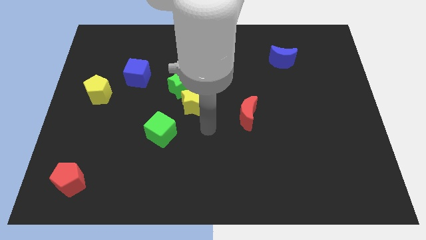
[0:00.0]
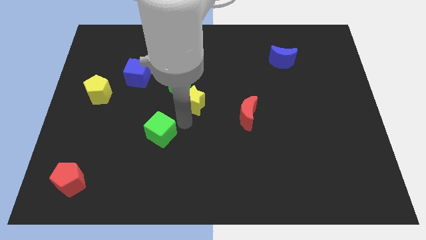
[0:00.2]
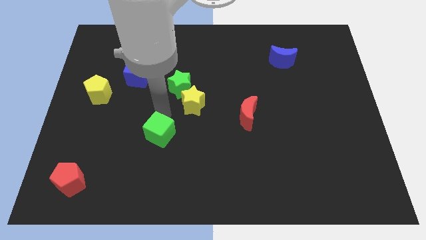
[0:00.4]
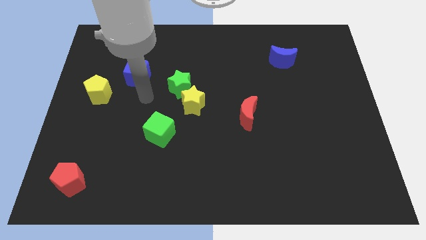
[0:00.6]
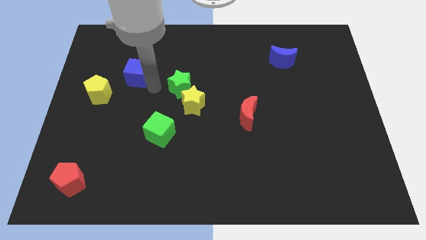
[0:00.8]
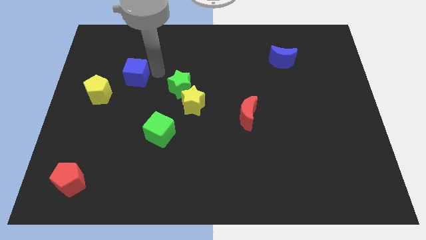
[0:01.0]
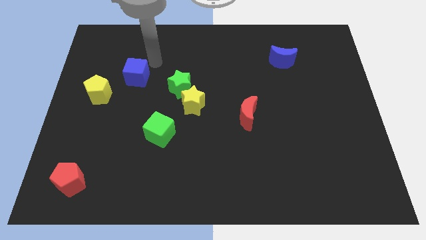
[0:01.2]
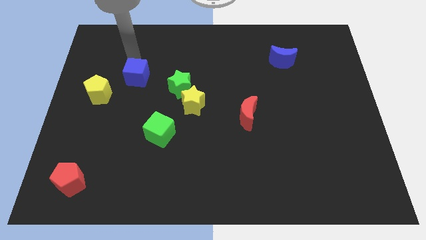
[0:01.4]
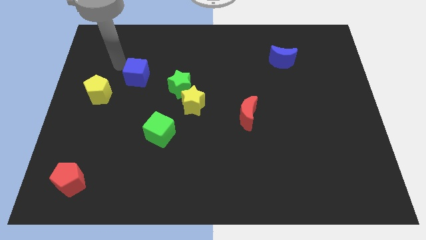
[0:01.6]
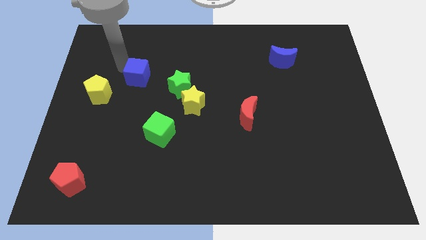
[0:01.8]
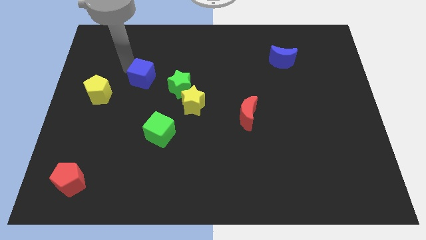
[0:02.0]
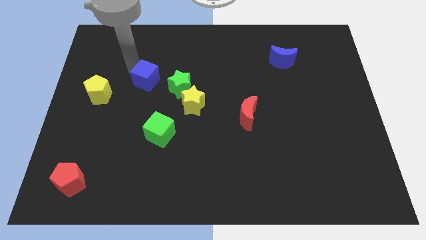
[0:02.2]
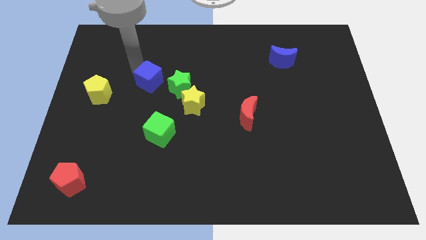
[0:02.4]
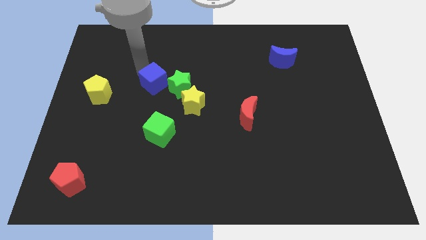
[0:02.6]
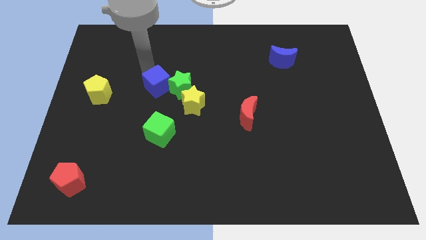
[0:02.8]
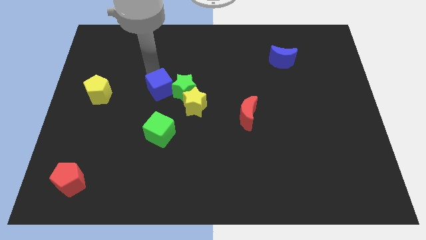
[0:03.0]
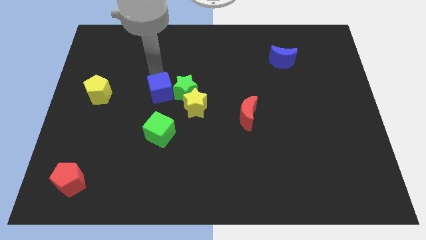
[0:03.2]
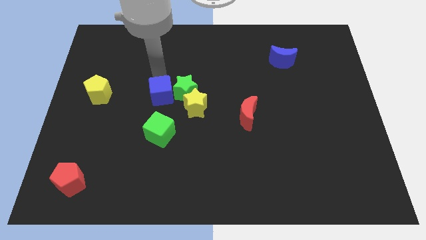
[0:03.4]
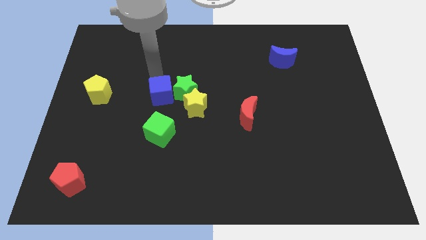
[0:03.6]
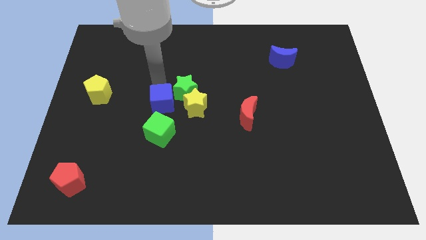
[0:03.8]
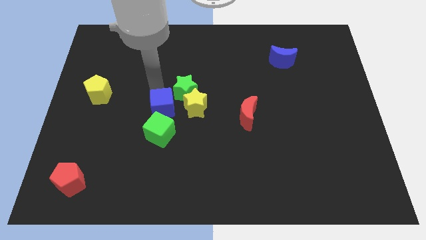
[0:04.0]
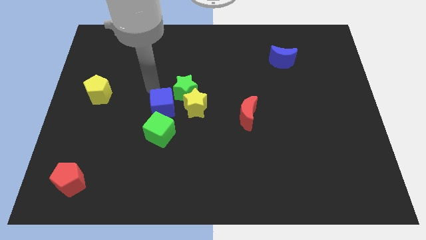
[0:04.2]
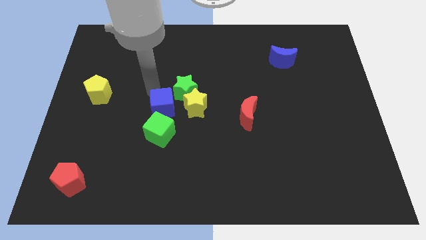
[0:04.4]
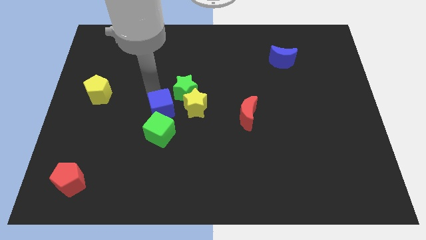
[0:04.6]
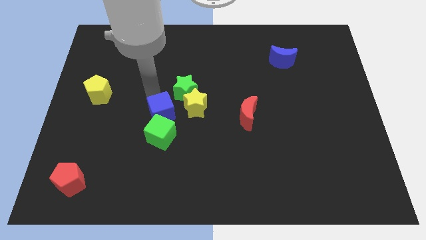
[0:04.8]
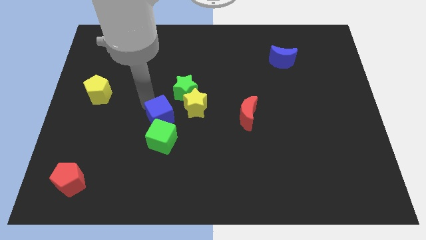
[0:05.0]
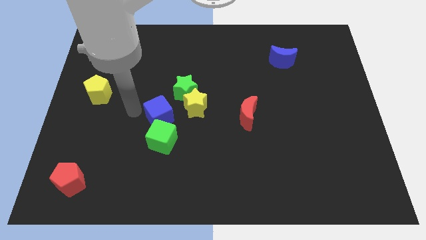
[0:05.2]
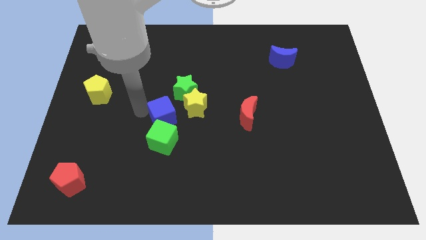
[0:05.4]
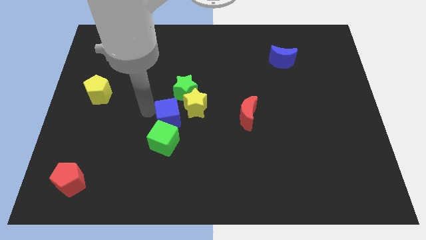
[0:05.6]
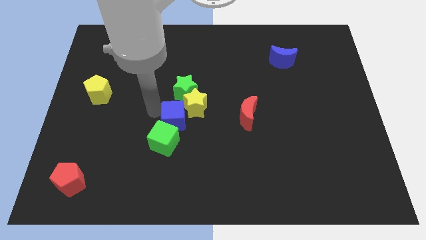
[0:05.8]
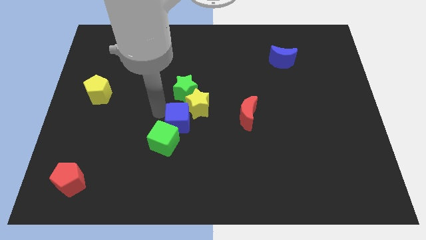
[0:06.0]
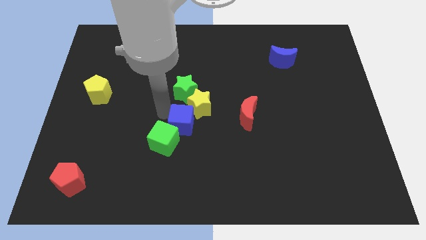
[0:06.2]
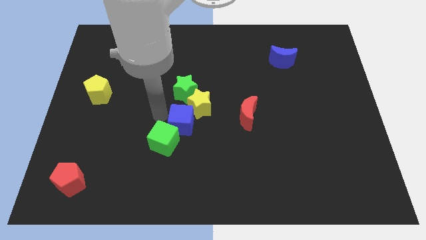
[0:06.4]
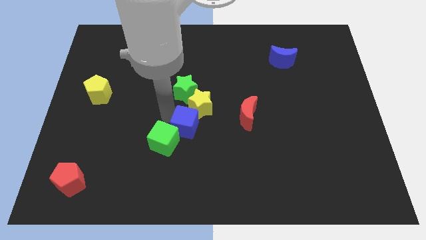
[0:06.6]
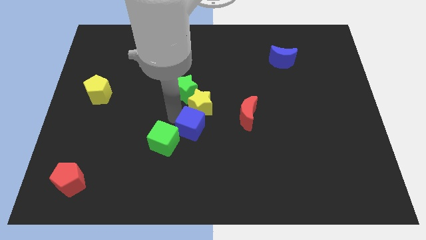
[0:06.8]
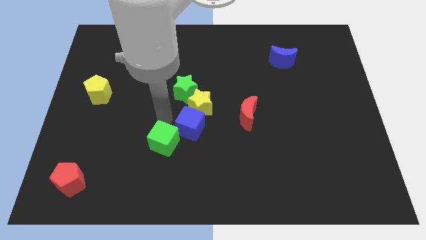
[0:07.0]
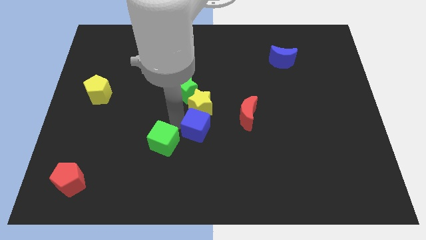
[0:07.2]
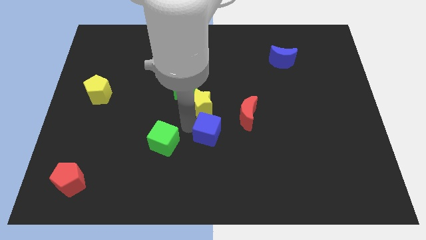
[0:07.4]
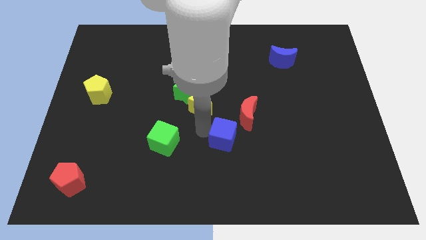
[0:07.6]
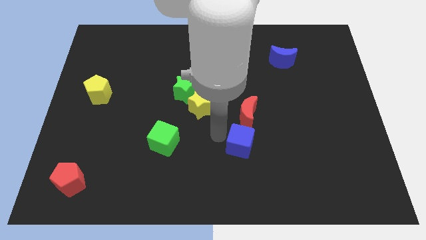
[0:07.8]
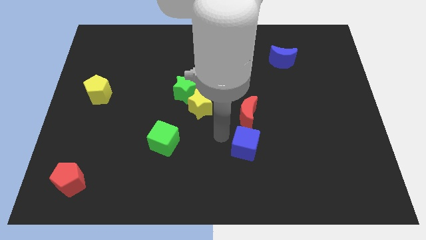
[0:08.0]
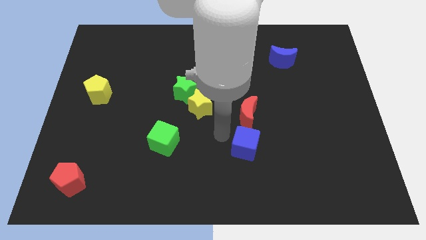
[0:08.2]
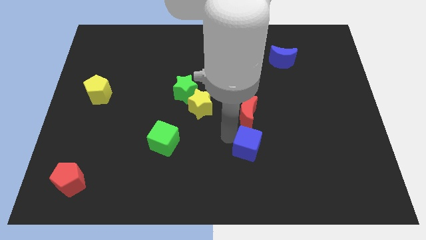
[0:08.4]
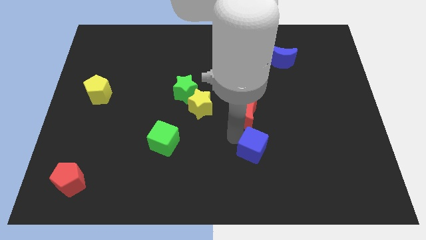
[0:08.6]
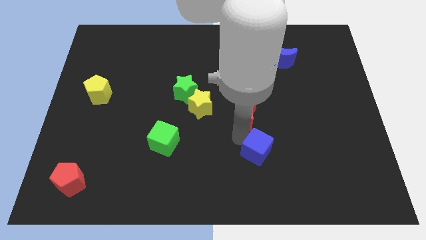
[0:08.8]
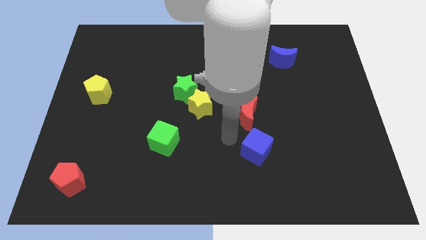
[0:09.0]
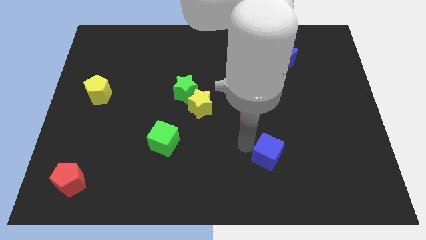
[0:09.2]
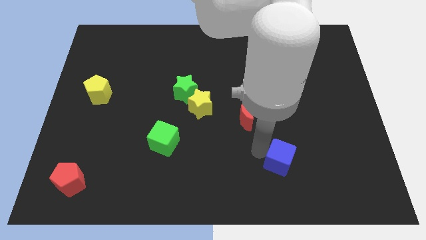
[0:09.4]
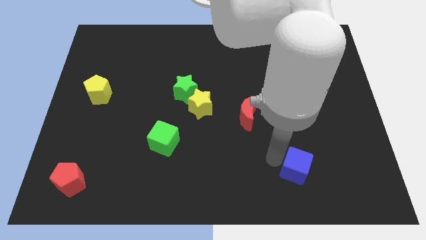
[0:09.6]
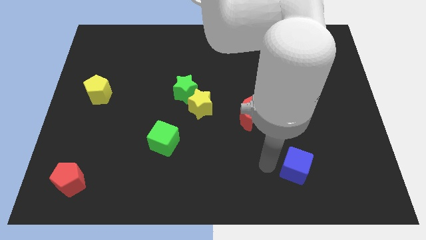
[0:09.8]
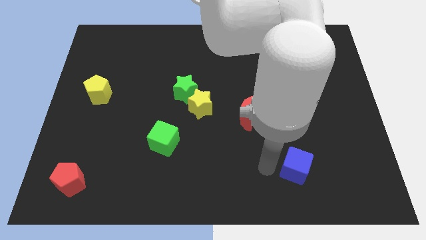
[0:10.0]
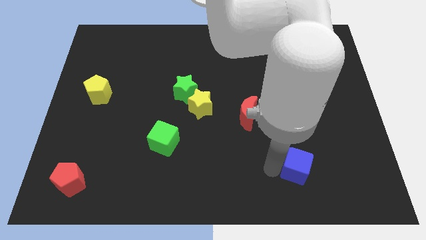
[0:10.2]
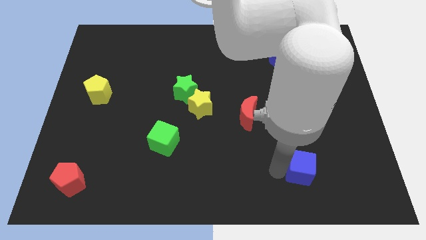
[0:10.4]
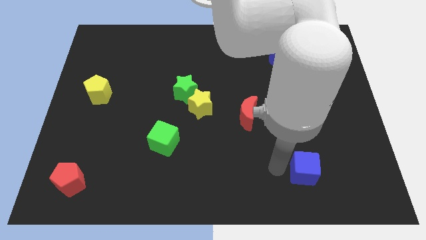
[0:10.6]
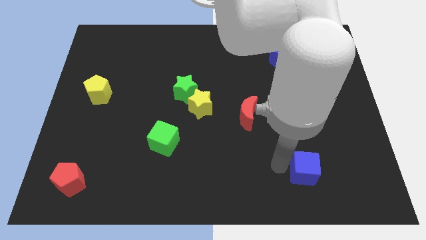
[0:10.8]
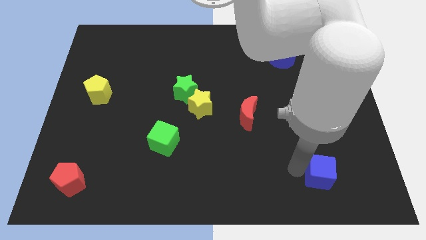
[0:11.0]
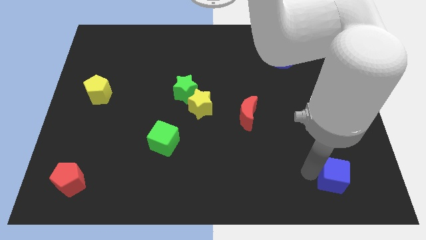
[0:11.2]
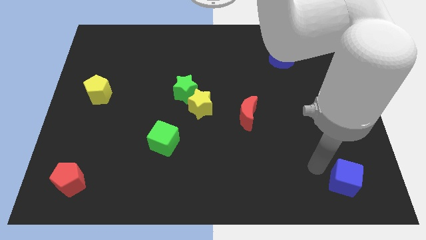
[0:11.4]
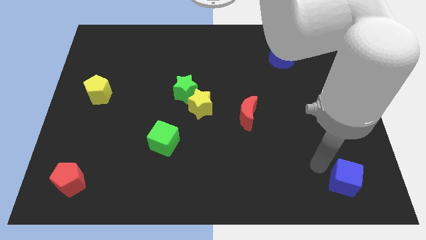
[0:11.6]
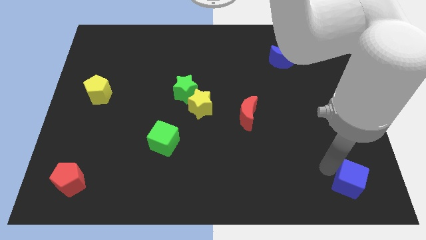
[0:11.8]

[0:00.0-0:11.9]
move the blue cube to the lower right corner

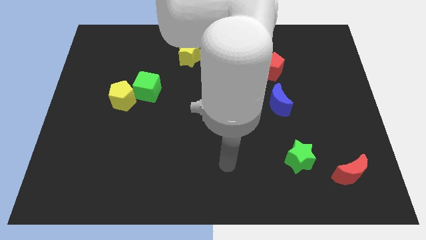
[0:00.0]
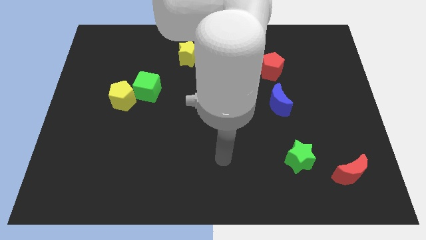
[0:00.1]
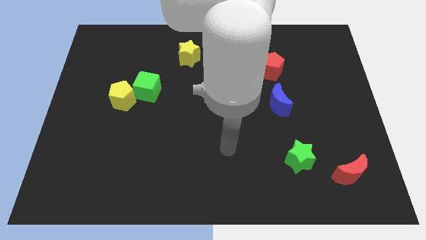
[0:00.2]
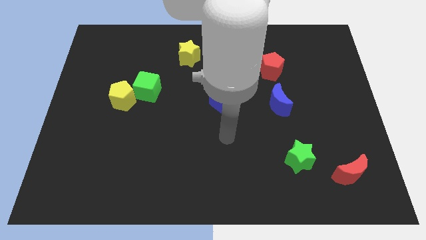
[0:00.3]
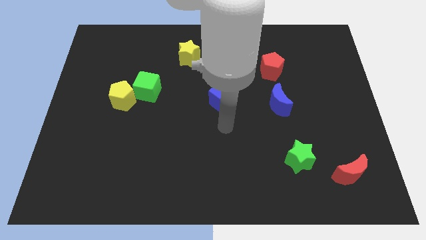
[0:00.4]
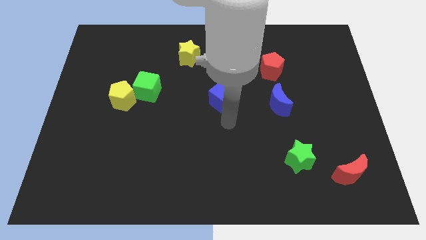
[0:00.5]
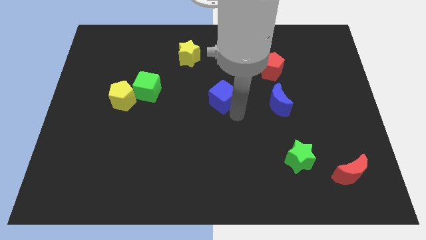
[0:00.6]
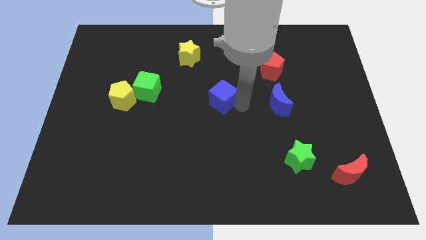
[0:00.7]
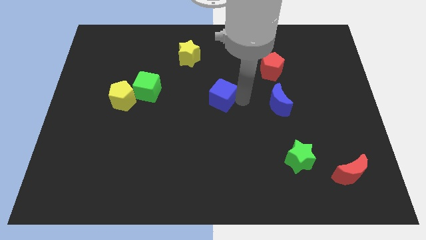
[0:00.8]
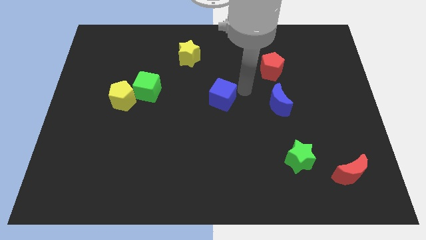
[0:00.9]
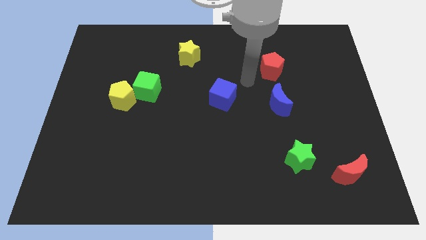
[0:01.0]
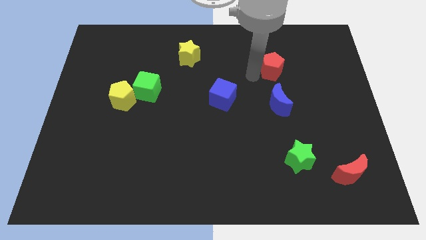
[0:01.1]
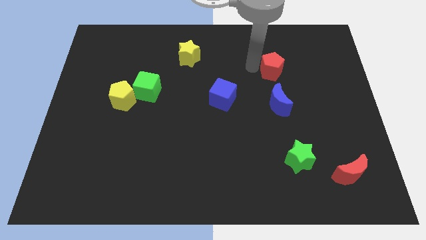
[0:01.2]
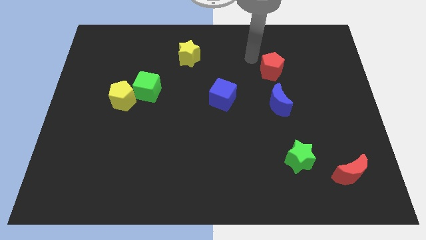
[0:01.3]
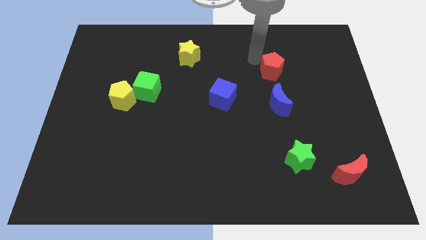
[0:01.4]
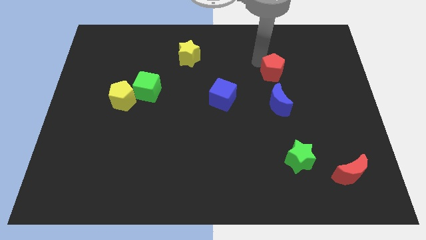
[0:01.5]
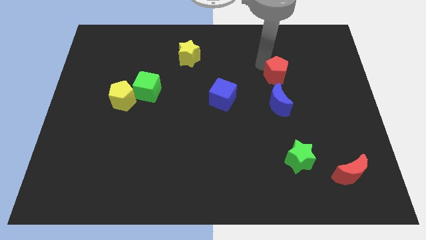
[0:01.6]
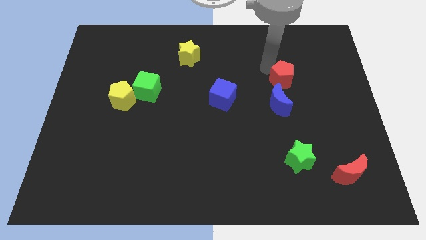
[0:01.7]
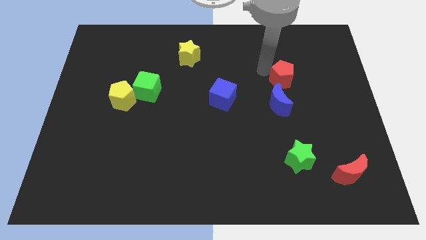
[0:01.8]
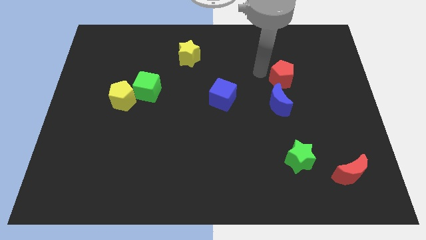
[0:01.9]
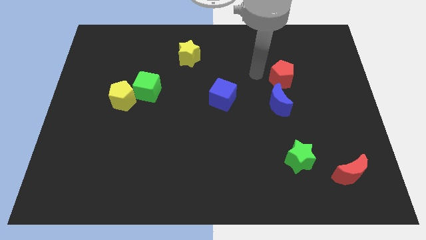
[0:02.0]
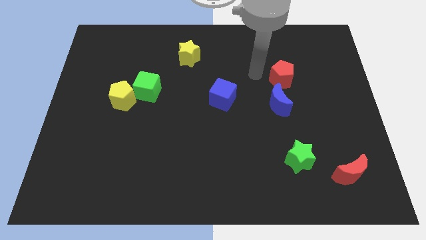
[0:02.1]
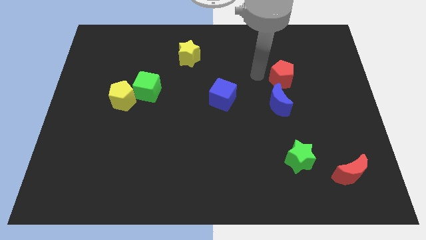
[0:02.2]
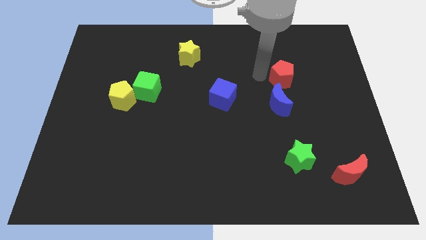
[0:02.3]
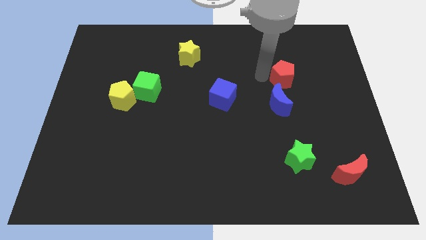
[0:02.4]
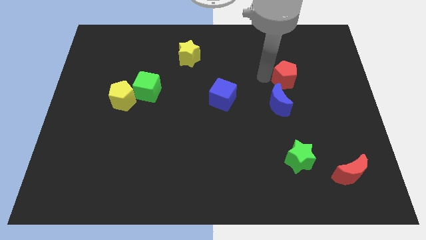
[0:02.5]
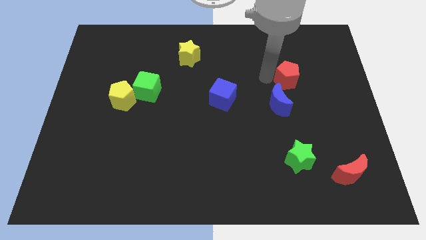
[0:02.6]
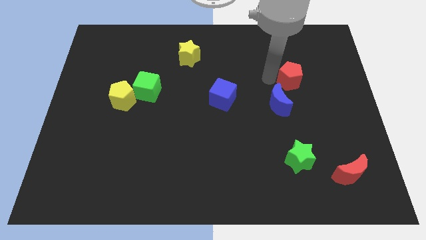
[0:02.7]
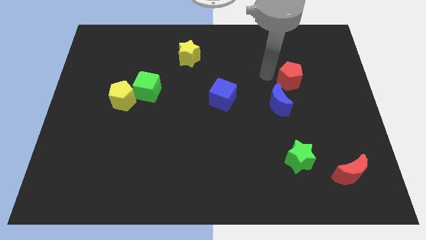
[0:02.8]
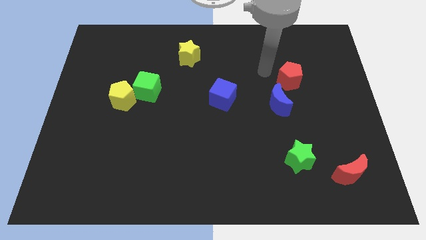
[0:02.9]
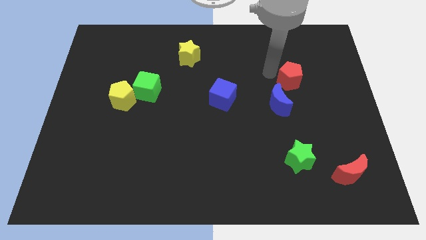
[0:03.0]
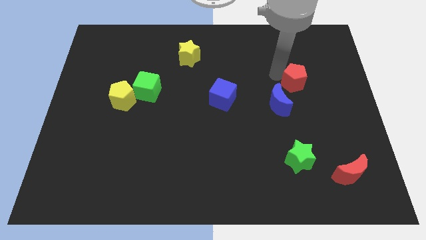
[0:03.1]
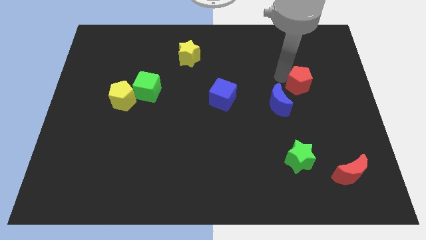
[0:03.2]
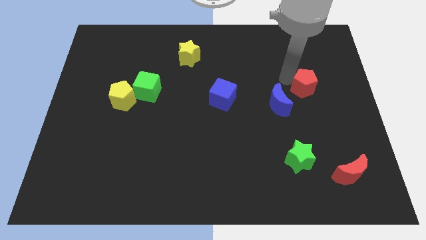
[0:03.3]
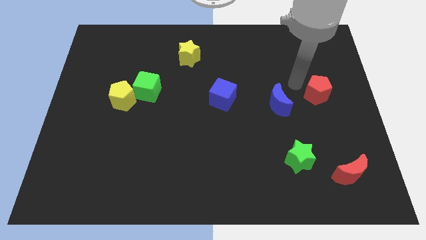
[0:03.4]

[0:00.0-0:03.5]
move the red pentagon to the right side
